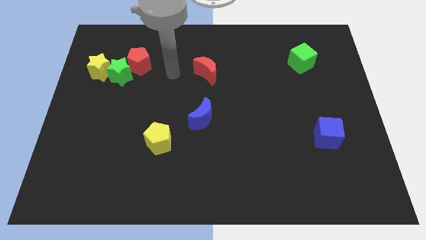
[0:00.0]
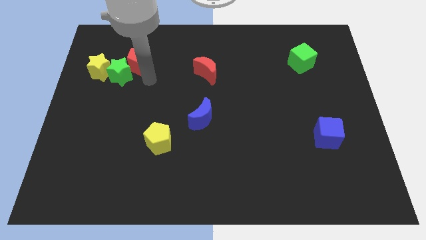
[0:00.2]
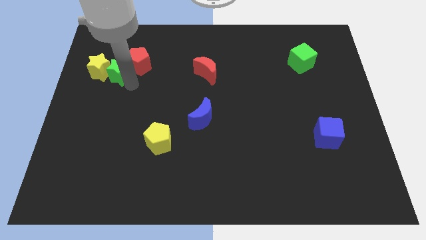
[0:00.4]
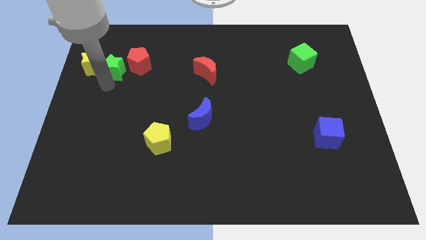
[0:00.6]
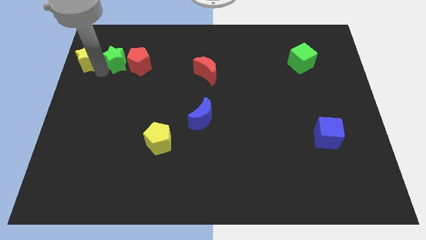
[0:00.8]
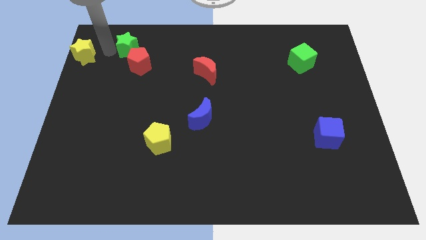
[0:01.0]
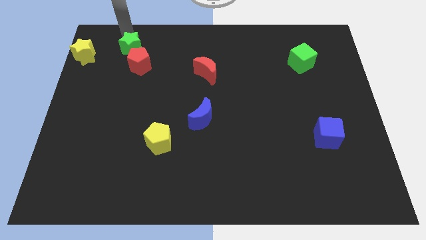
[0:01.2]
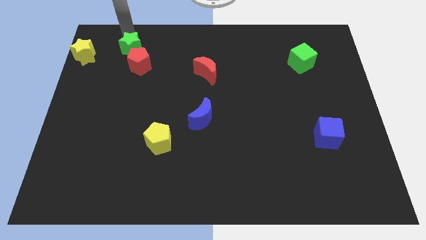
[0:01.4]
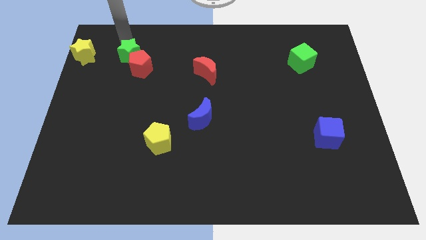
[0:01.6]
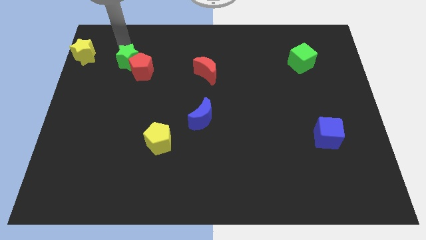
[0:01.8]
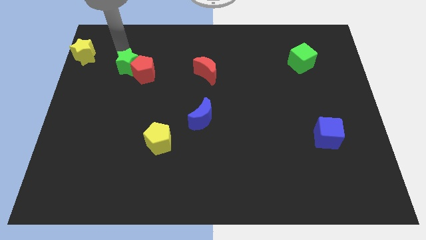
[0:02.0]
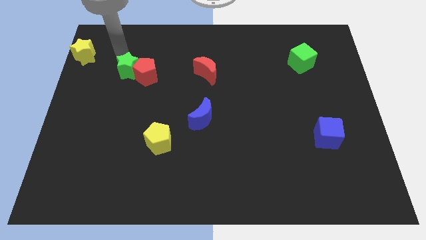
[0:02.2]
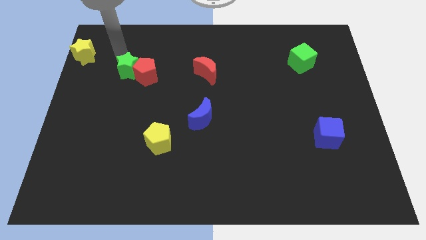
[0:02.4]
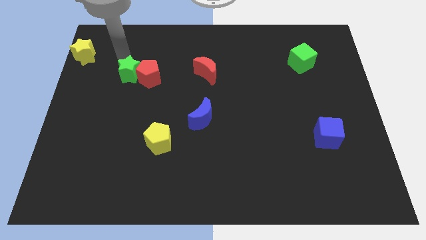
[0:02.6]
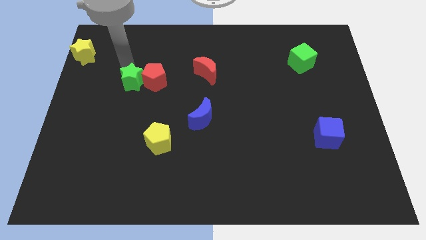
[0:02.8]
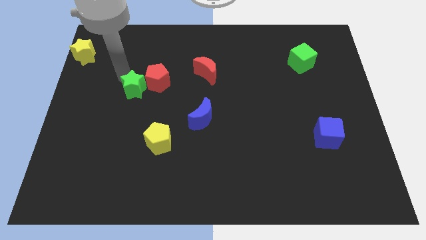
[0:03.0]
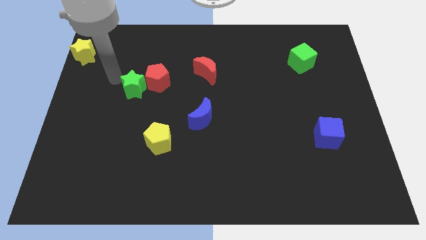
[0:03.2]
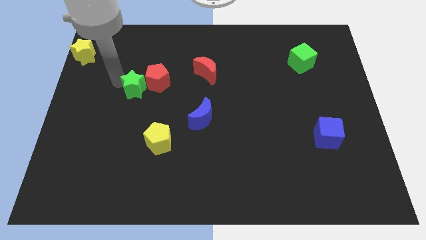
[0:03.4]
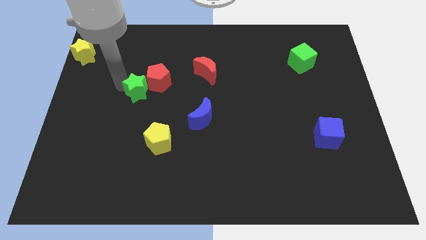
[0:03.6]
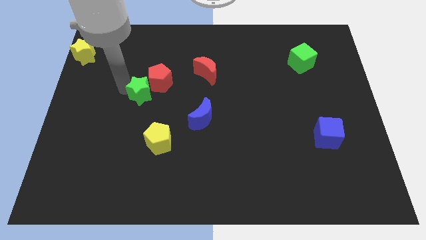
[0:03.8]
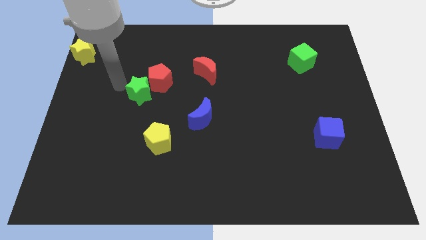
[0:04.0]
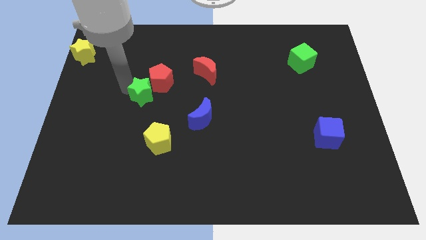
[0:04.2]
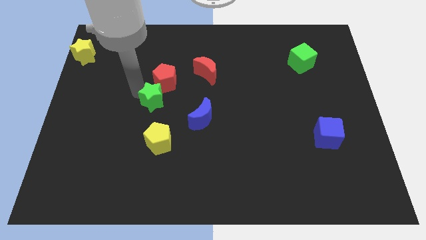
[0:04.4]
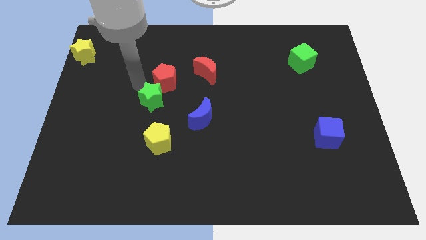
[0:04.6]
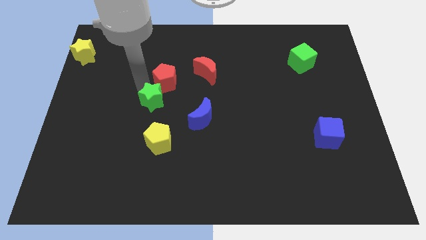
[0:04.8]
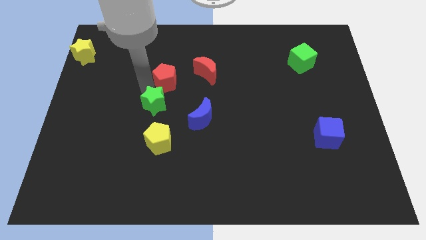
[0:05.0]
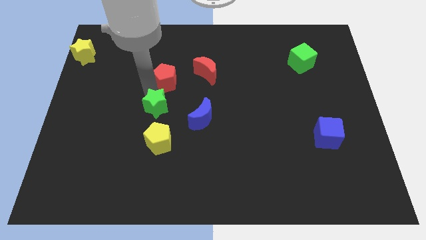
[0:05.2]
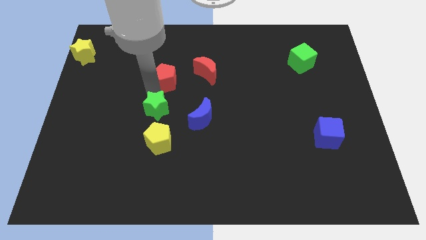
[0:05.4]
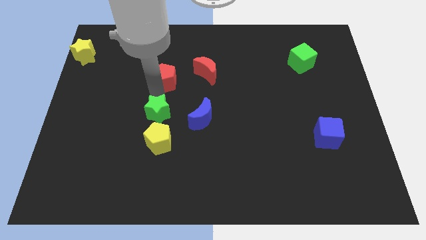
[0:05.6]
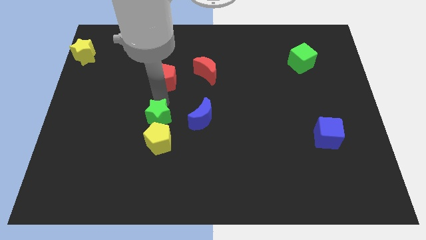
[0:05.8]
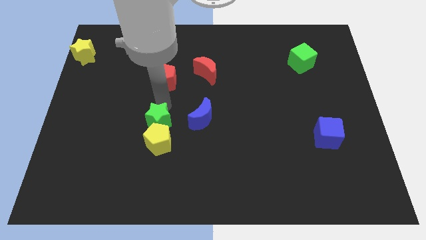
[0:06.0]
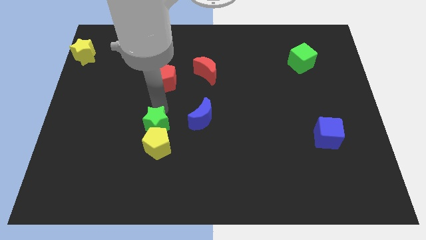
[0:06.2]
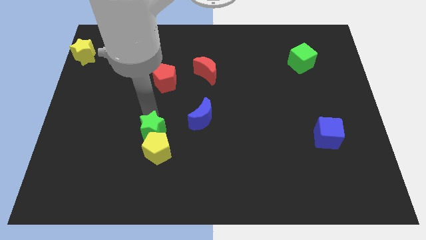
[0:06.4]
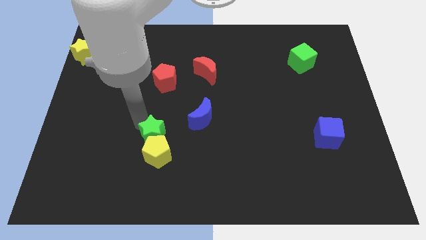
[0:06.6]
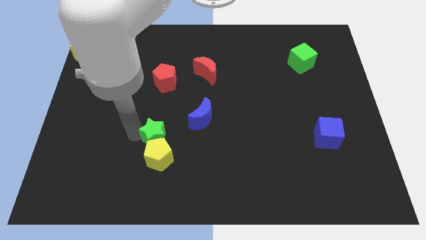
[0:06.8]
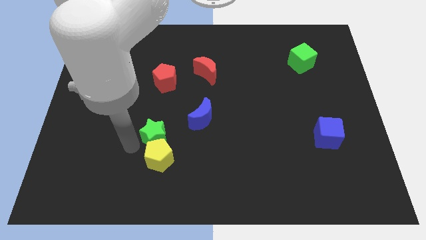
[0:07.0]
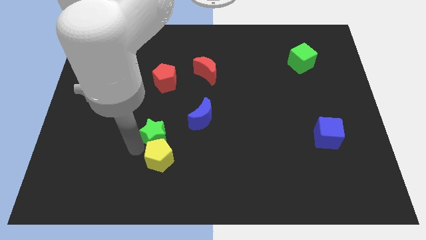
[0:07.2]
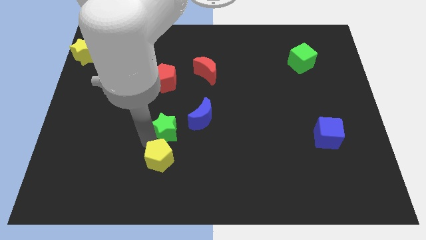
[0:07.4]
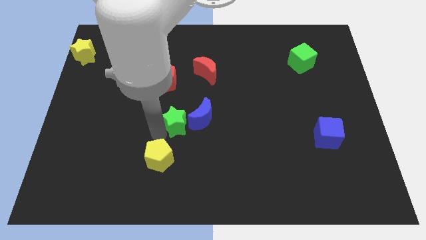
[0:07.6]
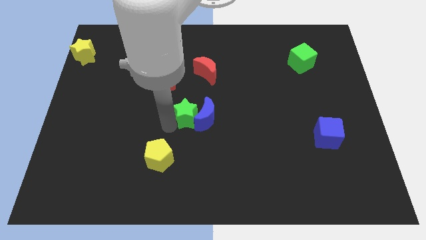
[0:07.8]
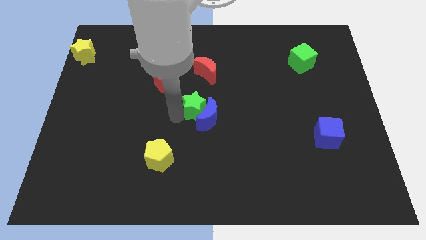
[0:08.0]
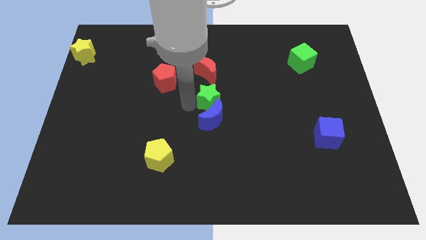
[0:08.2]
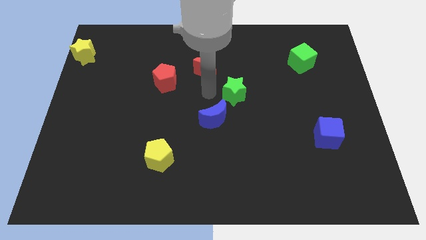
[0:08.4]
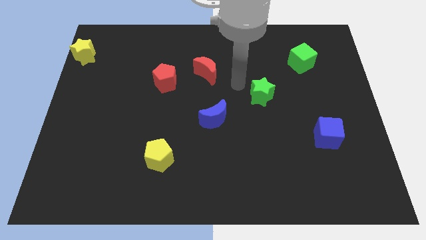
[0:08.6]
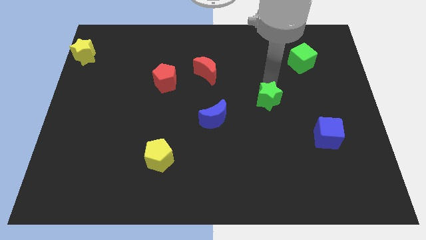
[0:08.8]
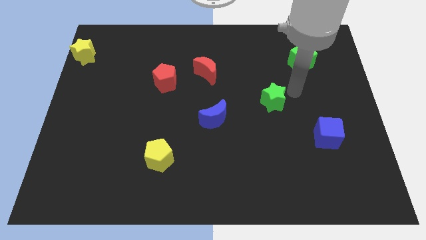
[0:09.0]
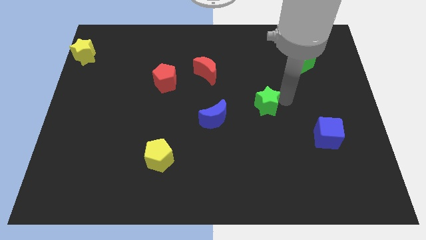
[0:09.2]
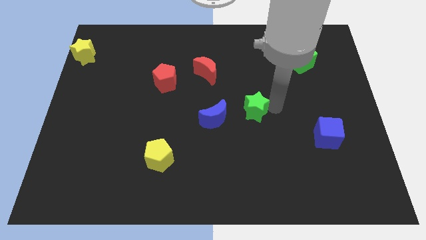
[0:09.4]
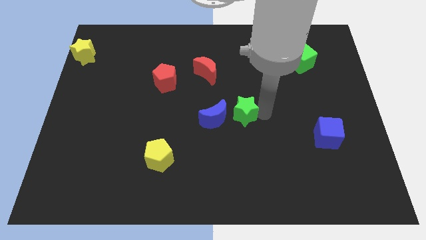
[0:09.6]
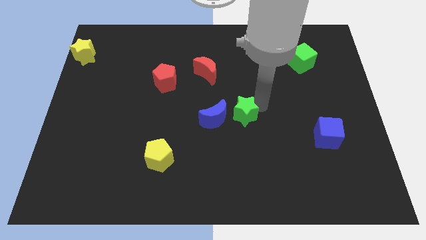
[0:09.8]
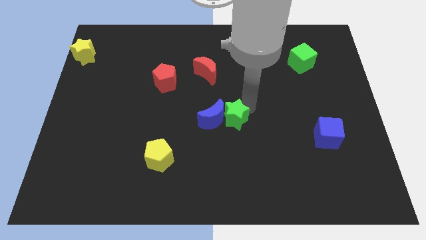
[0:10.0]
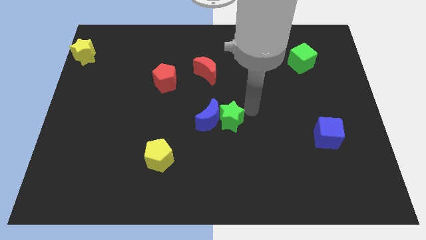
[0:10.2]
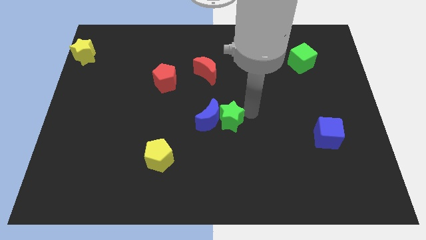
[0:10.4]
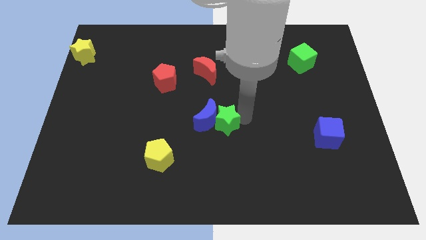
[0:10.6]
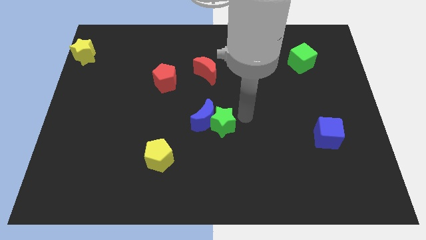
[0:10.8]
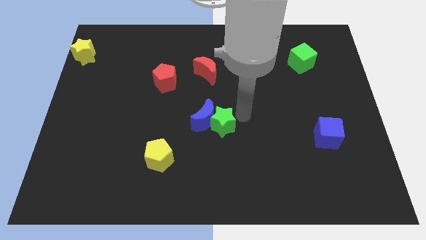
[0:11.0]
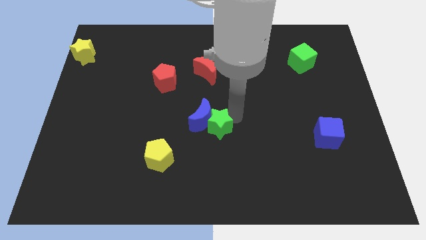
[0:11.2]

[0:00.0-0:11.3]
move the green star below the blue moon

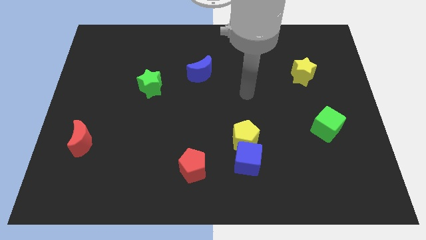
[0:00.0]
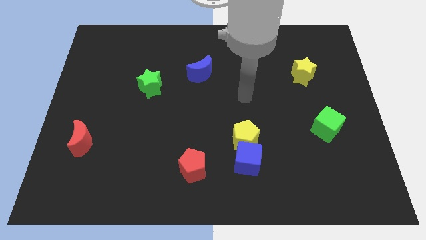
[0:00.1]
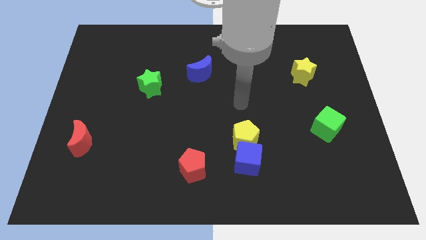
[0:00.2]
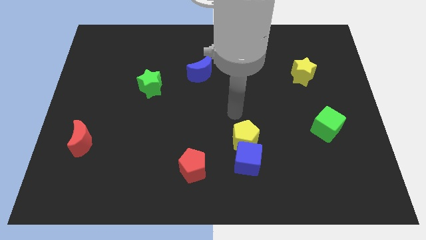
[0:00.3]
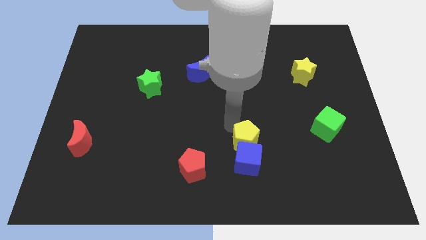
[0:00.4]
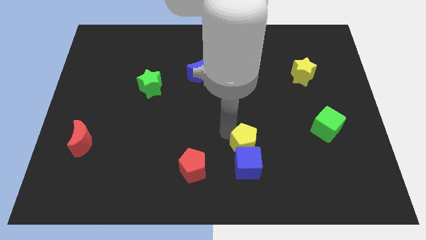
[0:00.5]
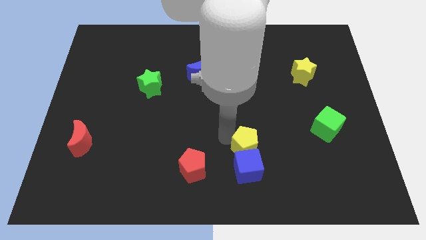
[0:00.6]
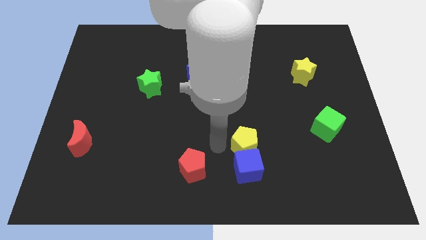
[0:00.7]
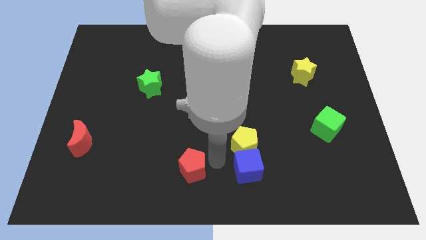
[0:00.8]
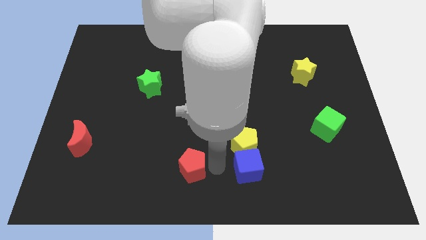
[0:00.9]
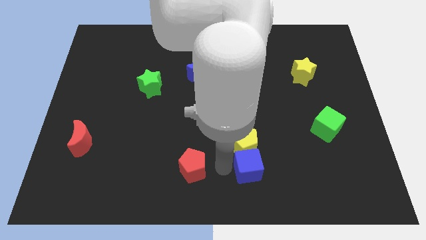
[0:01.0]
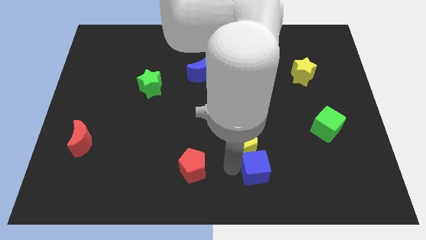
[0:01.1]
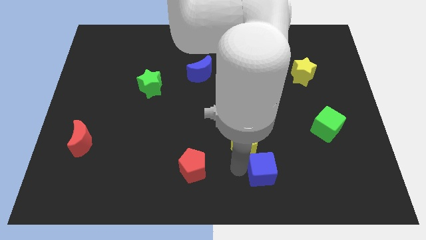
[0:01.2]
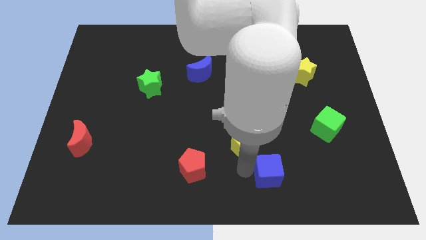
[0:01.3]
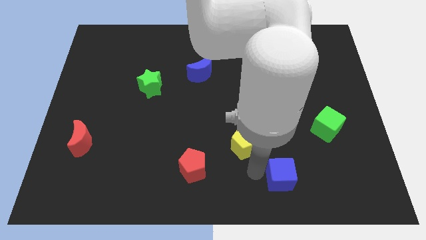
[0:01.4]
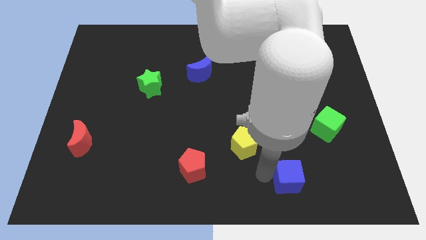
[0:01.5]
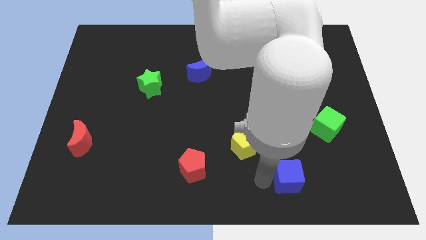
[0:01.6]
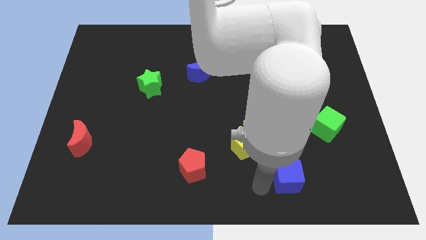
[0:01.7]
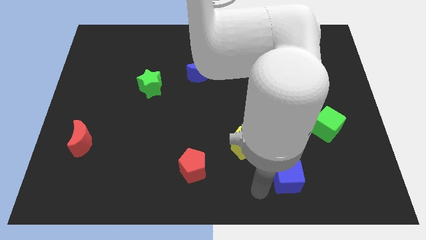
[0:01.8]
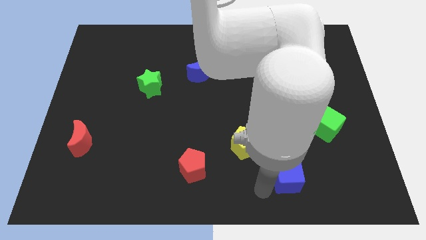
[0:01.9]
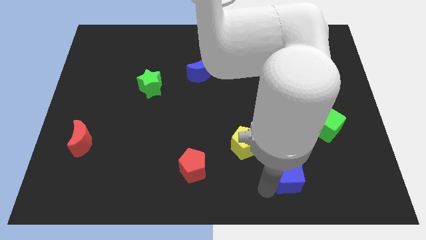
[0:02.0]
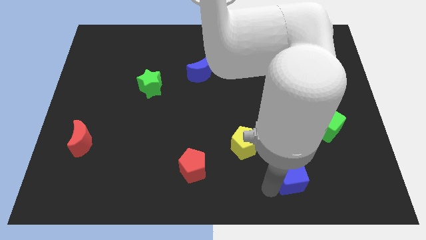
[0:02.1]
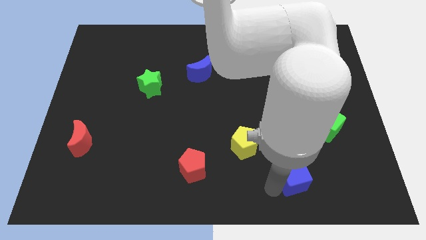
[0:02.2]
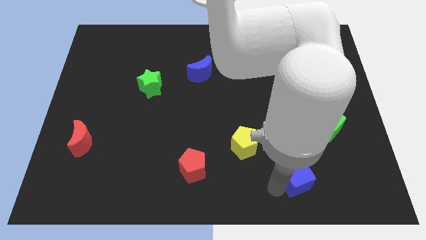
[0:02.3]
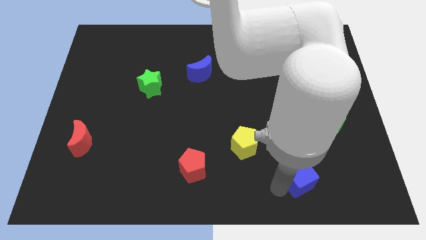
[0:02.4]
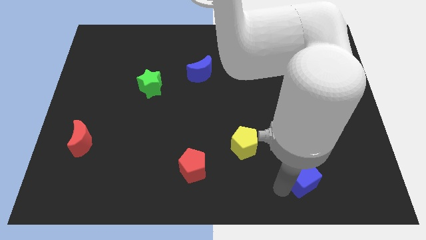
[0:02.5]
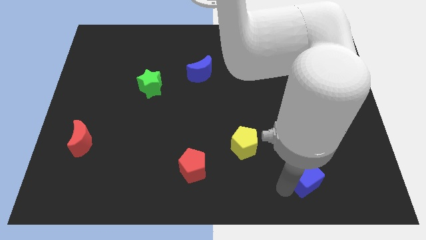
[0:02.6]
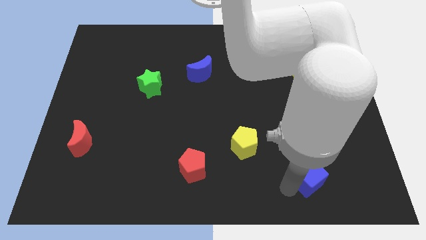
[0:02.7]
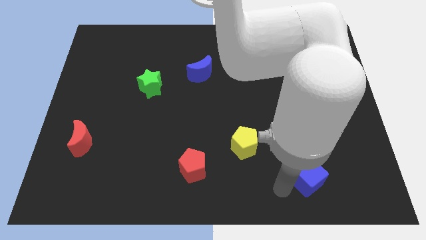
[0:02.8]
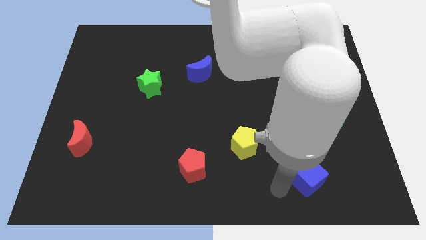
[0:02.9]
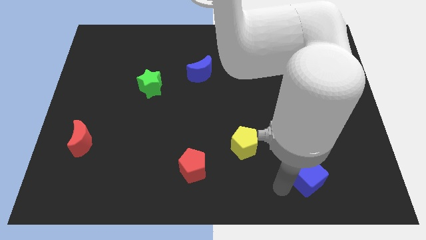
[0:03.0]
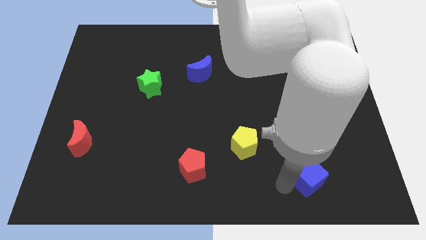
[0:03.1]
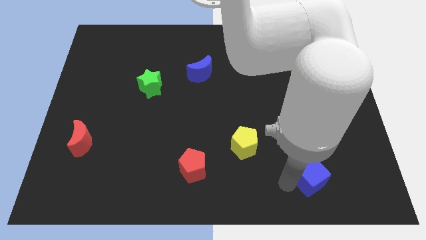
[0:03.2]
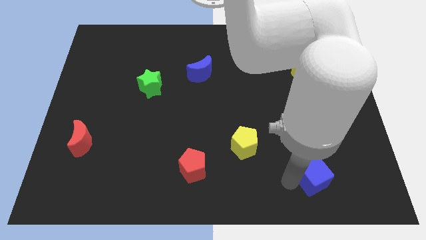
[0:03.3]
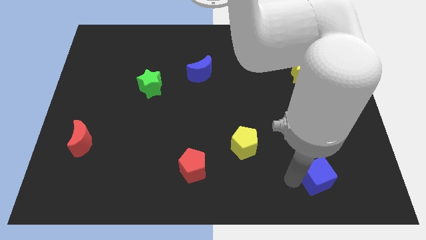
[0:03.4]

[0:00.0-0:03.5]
move the blue cube to the bottom side of the green cube
